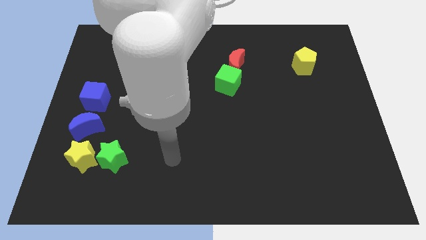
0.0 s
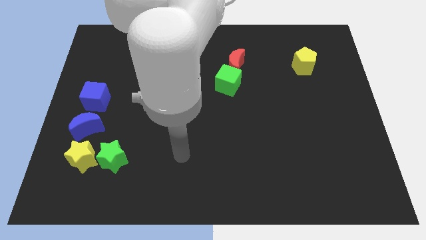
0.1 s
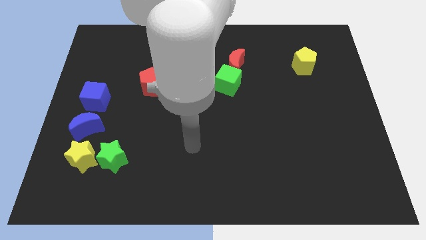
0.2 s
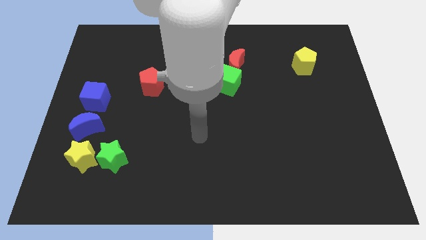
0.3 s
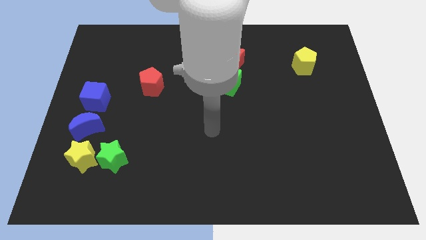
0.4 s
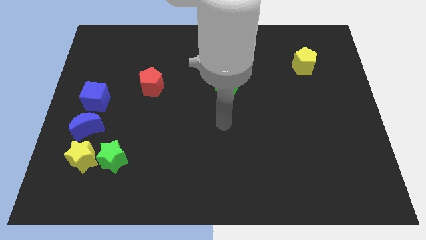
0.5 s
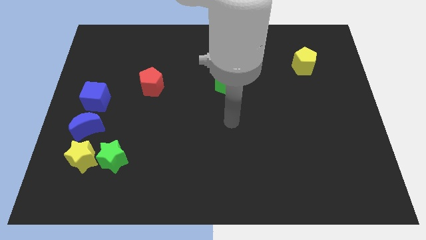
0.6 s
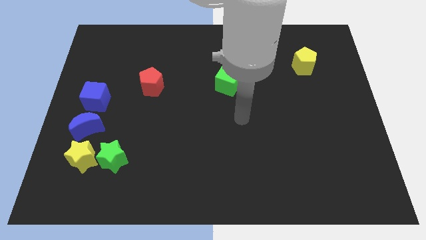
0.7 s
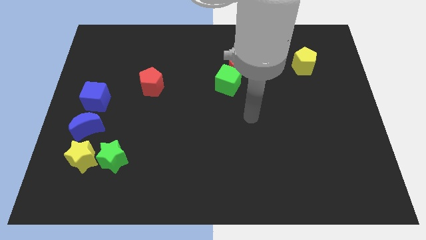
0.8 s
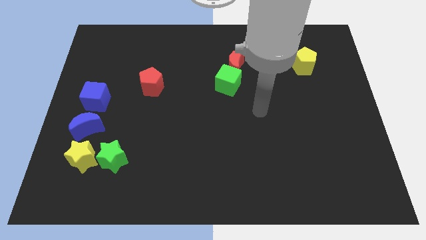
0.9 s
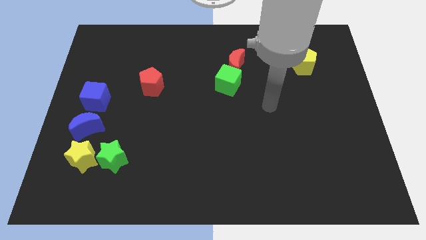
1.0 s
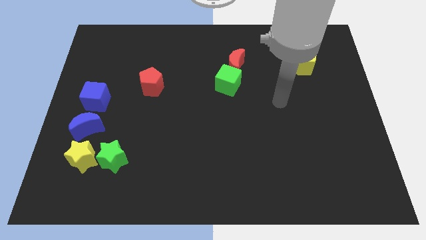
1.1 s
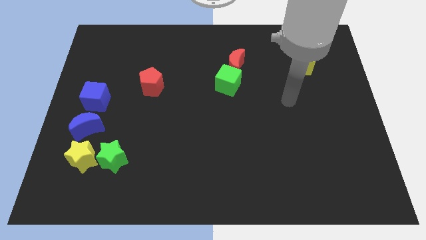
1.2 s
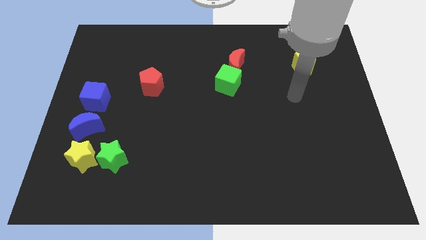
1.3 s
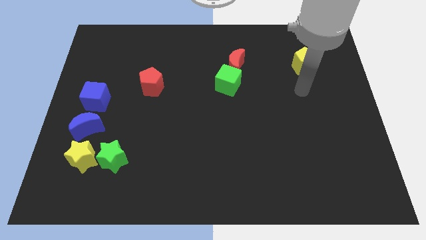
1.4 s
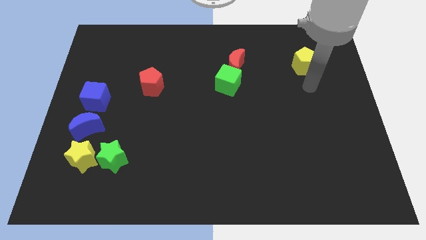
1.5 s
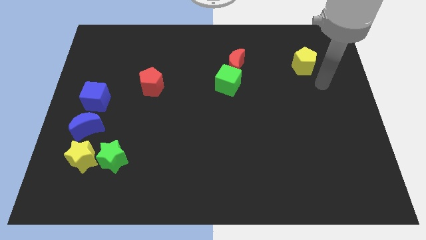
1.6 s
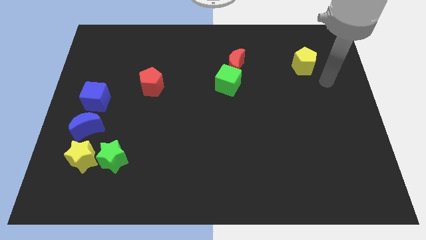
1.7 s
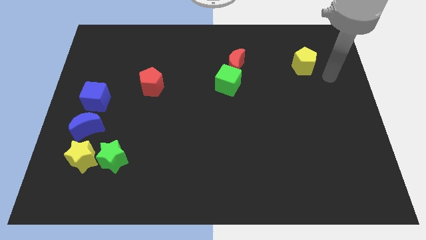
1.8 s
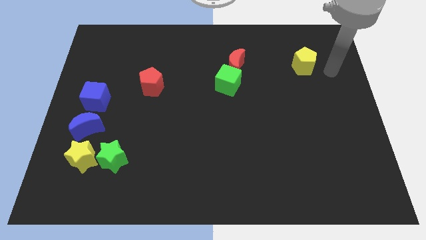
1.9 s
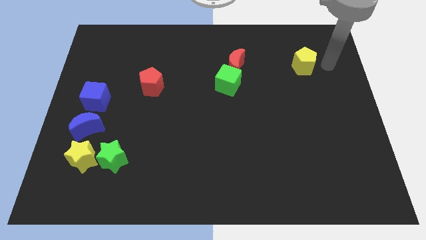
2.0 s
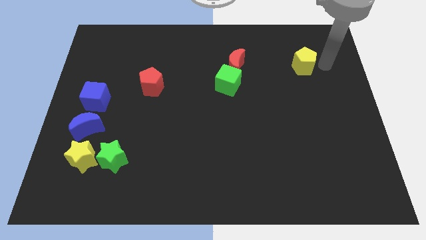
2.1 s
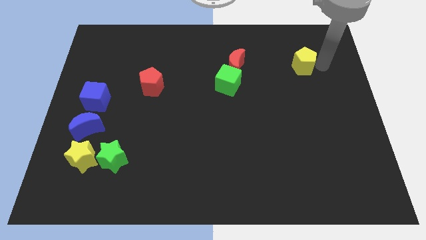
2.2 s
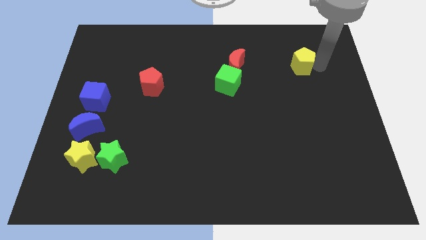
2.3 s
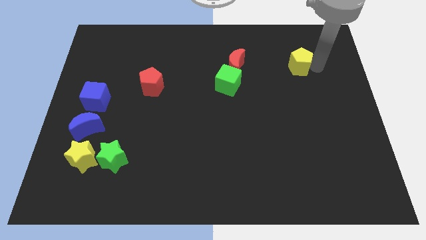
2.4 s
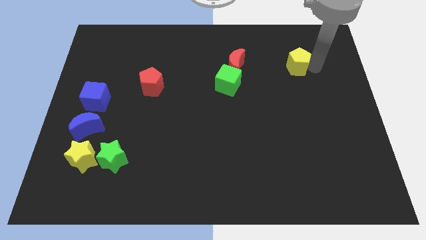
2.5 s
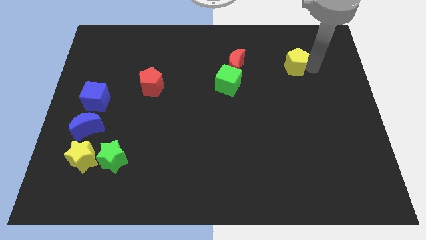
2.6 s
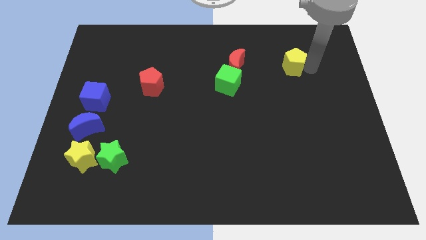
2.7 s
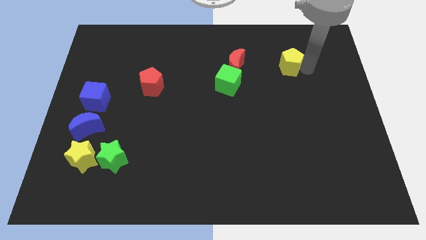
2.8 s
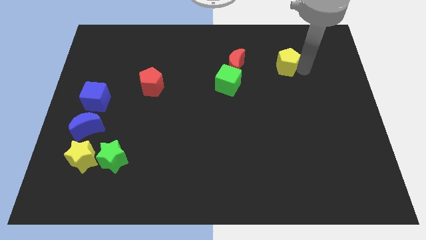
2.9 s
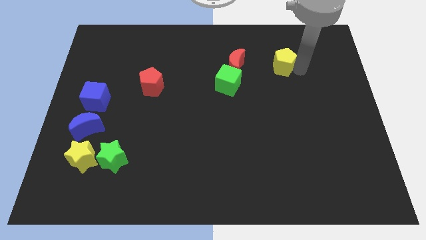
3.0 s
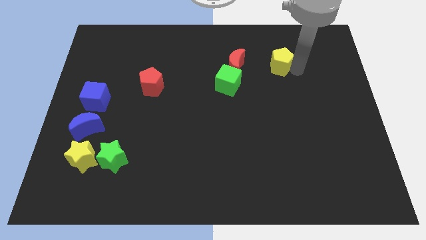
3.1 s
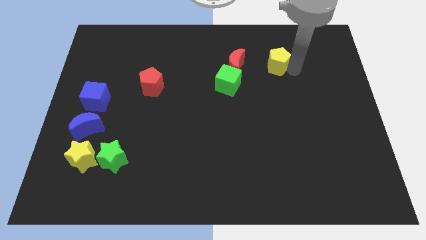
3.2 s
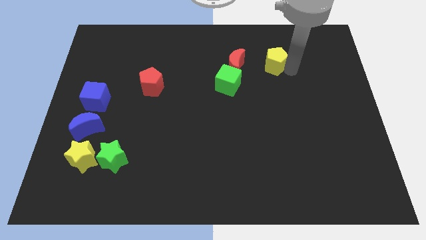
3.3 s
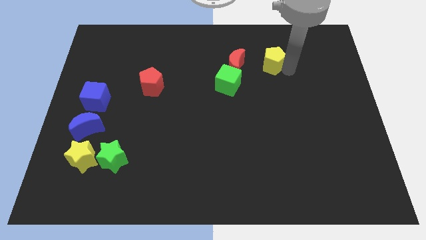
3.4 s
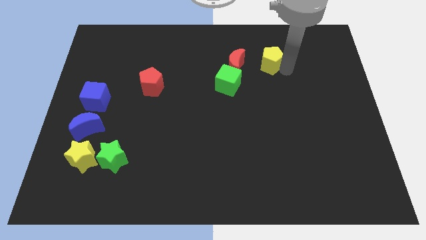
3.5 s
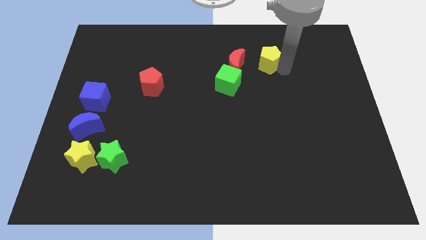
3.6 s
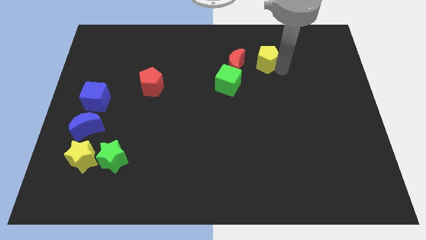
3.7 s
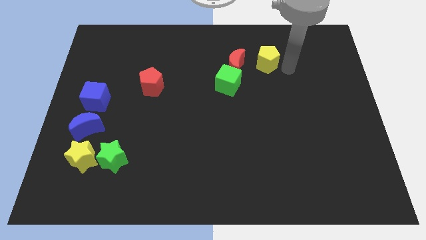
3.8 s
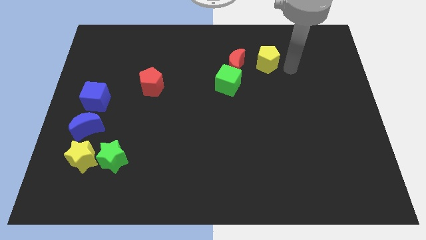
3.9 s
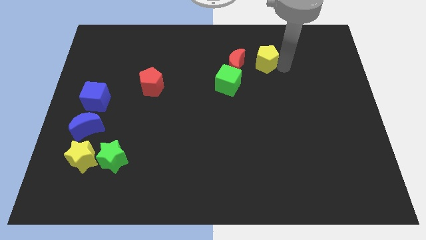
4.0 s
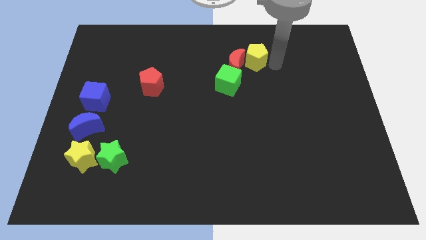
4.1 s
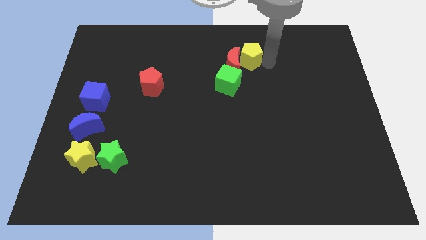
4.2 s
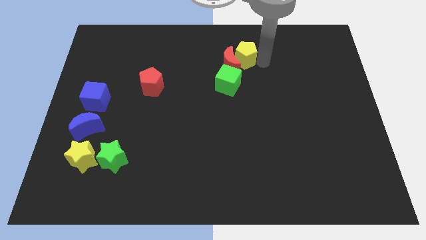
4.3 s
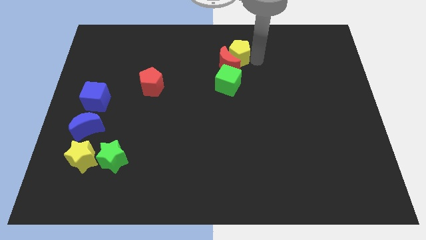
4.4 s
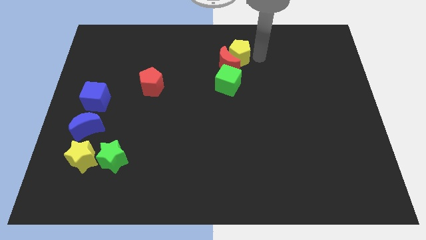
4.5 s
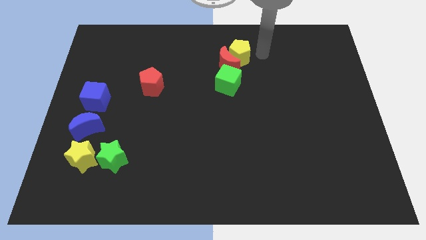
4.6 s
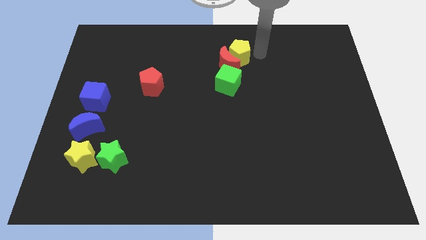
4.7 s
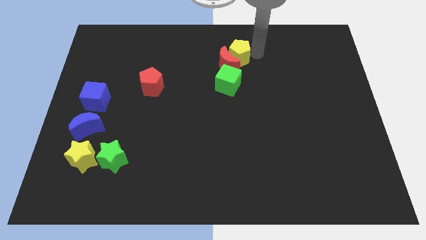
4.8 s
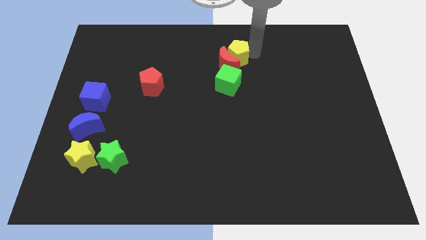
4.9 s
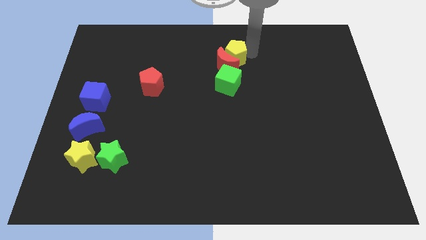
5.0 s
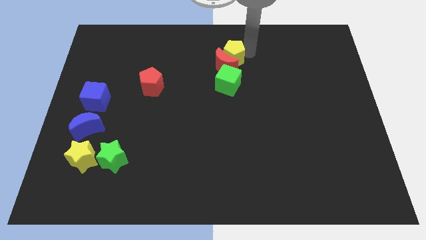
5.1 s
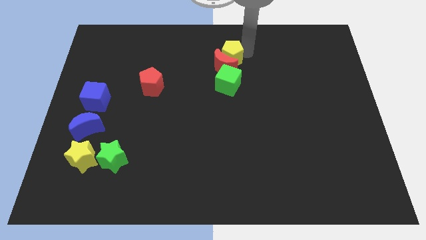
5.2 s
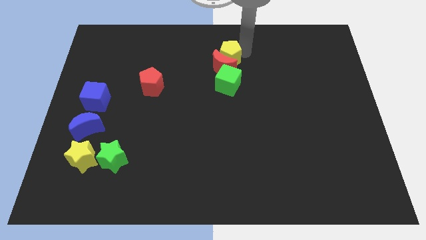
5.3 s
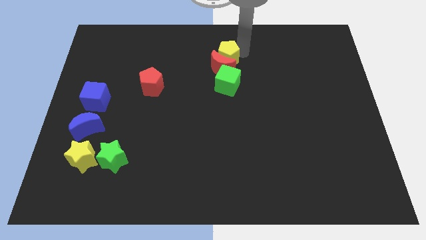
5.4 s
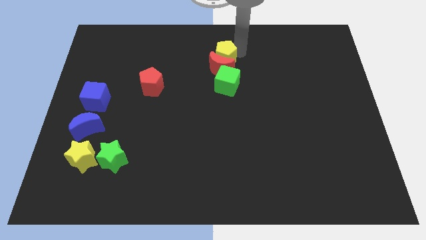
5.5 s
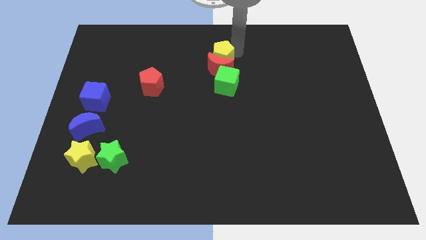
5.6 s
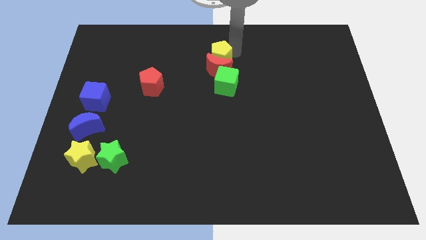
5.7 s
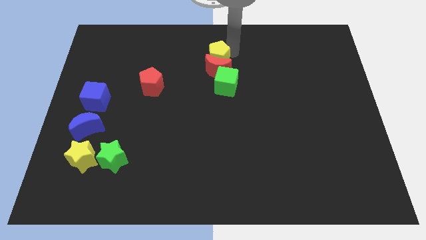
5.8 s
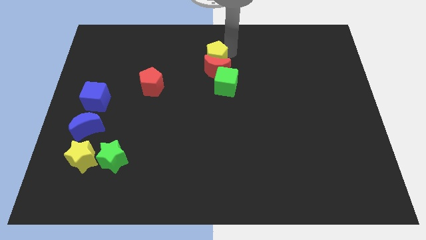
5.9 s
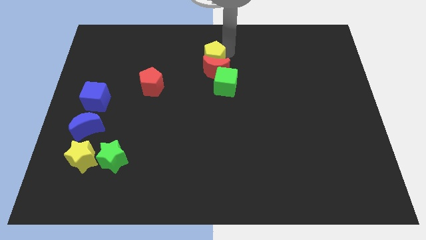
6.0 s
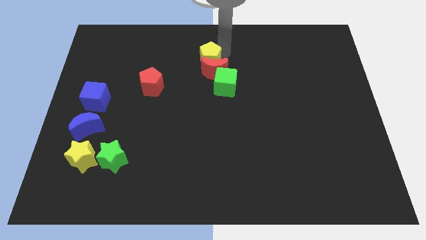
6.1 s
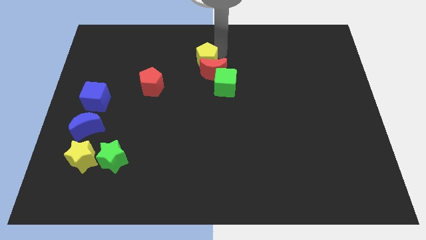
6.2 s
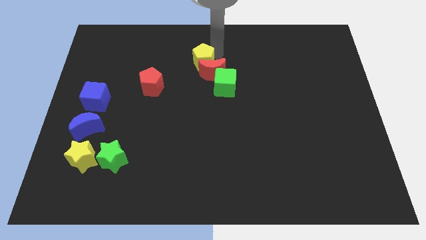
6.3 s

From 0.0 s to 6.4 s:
push the yellow pentagon to the left side of the red moon
